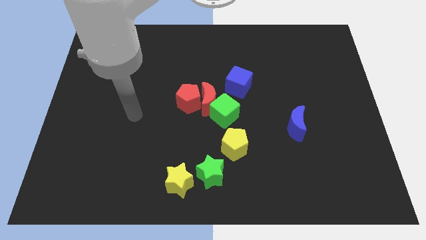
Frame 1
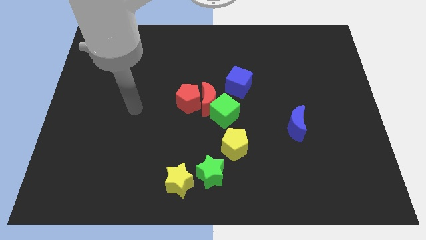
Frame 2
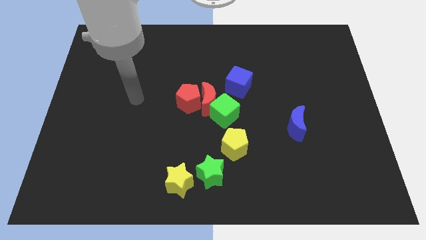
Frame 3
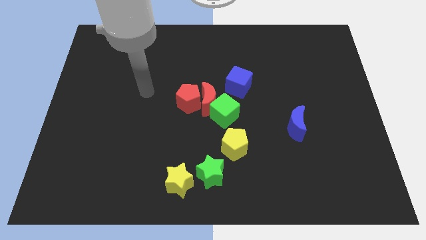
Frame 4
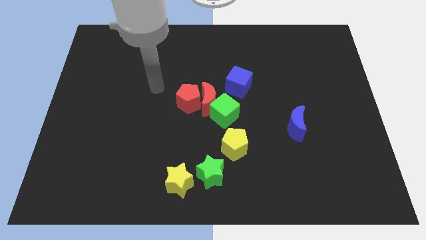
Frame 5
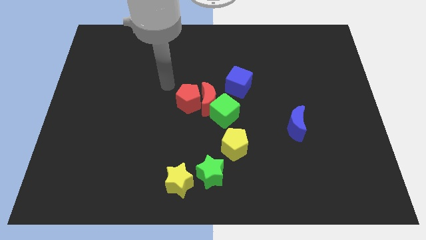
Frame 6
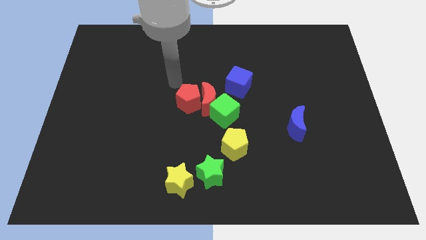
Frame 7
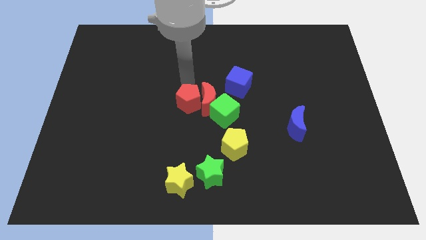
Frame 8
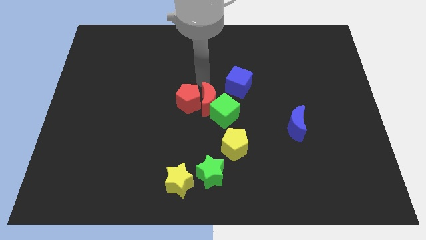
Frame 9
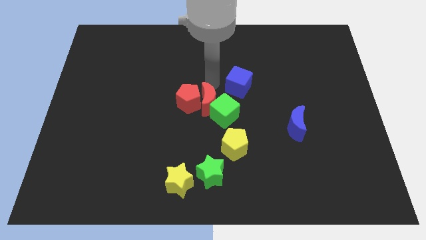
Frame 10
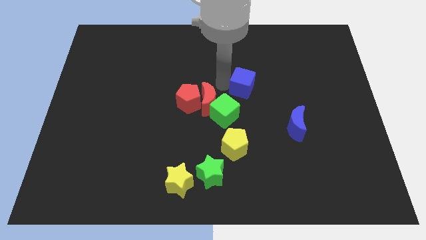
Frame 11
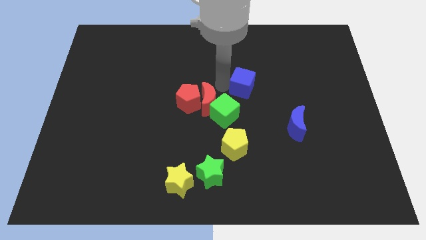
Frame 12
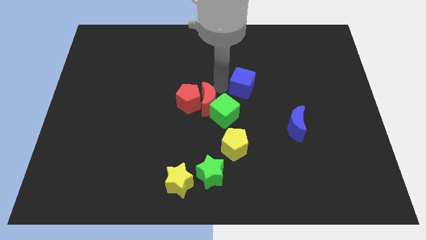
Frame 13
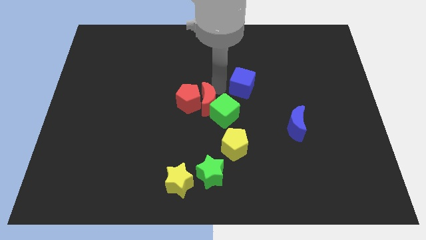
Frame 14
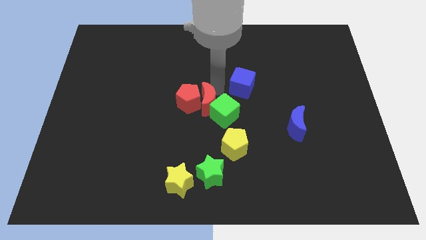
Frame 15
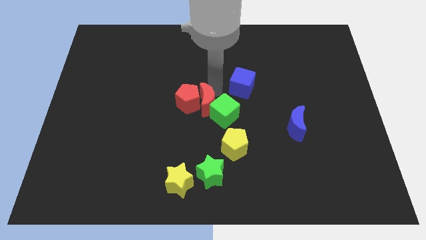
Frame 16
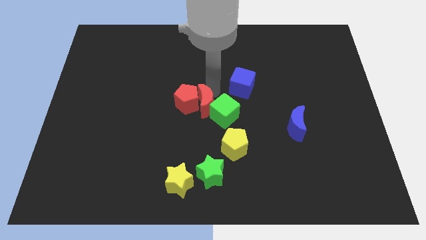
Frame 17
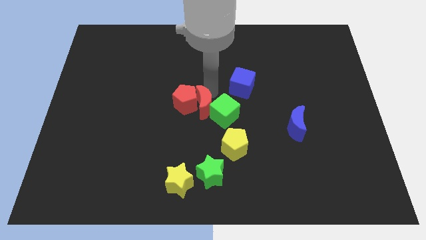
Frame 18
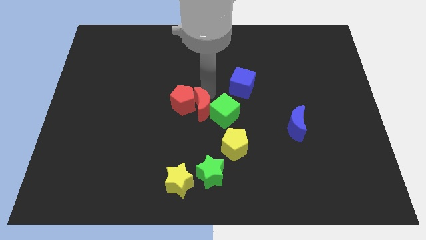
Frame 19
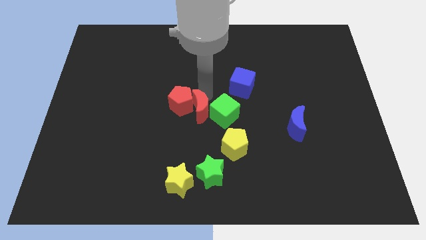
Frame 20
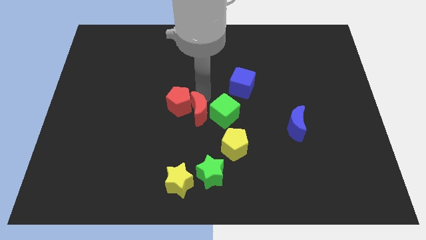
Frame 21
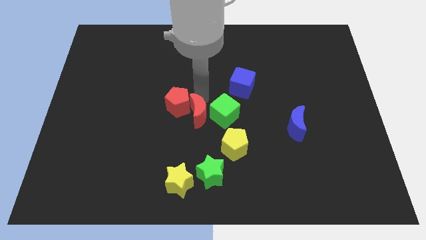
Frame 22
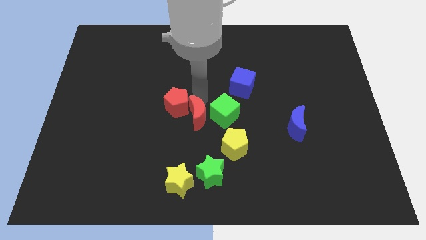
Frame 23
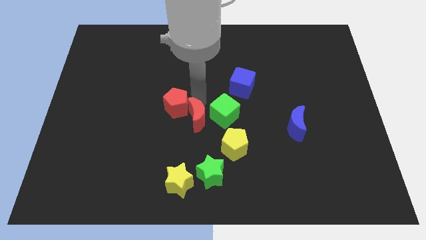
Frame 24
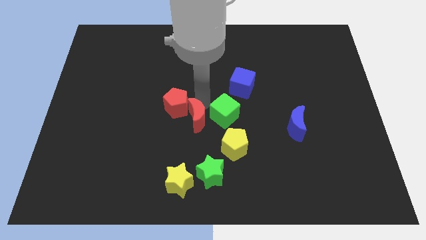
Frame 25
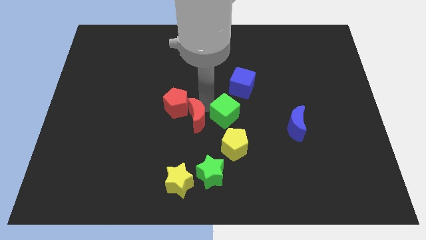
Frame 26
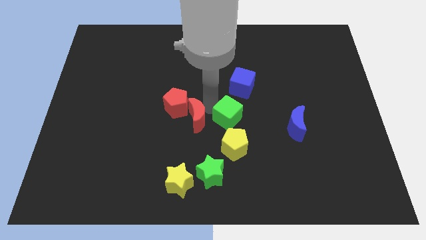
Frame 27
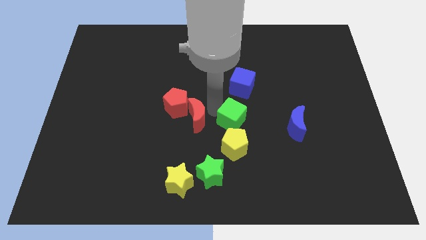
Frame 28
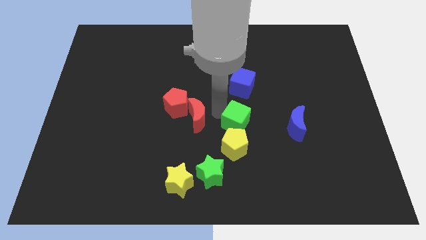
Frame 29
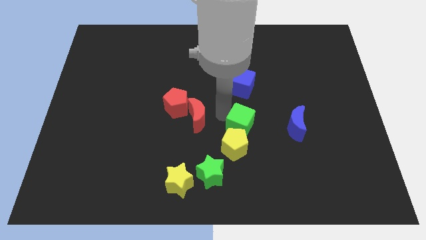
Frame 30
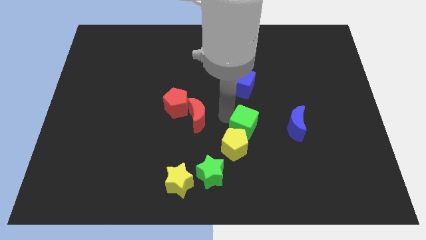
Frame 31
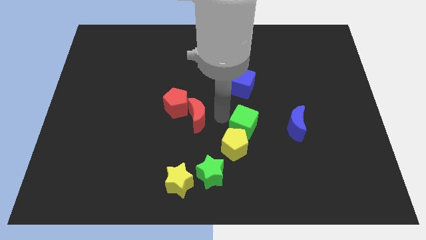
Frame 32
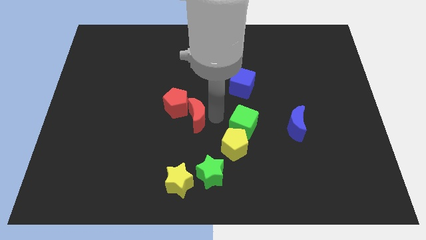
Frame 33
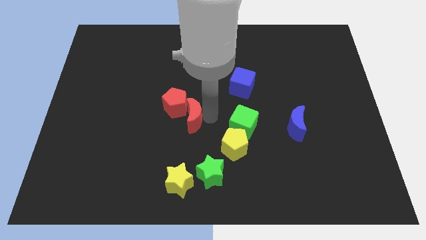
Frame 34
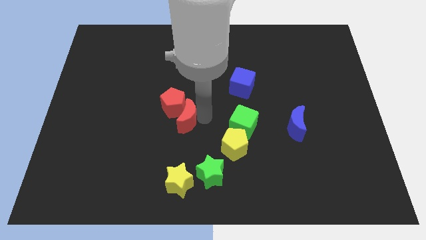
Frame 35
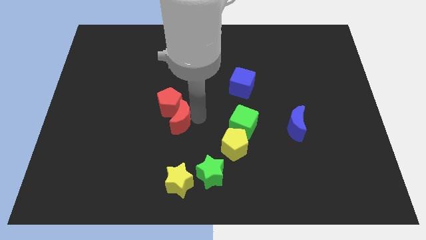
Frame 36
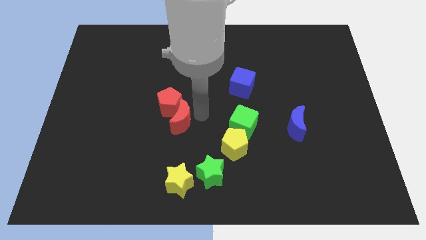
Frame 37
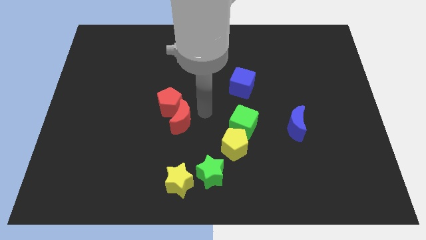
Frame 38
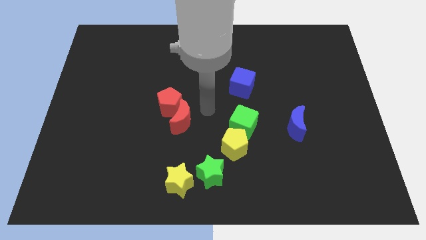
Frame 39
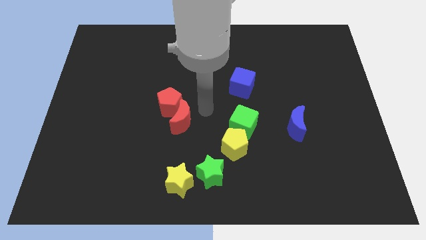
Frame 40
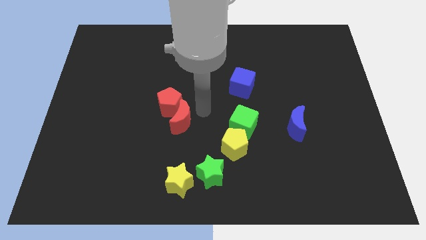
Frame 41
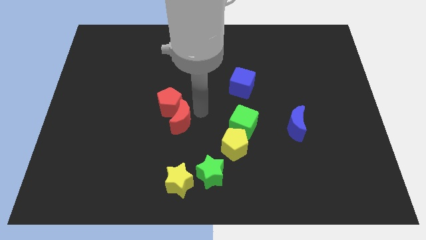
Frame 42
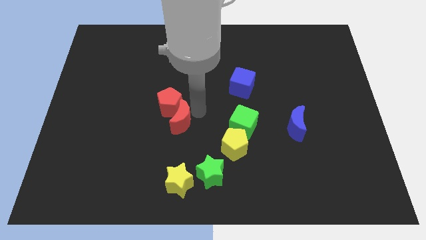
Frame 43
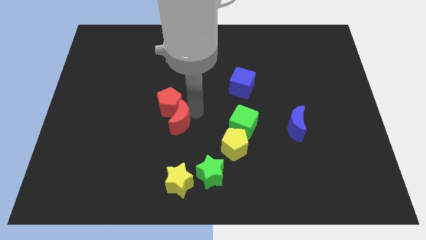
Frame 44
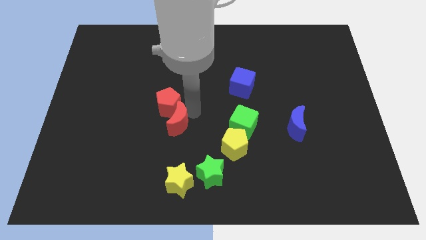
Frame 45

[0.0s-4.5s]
separate the red moon from the group of blocks

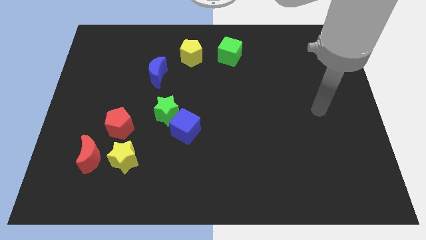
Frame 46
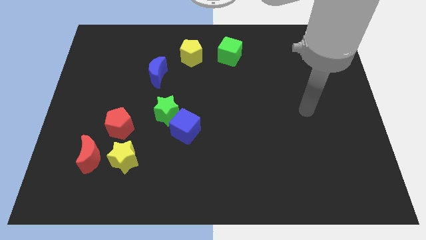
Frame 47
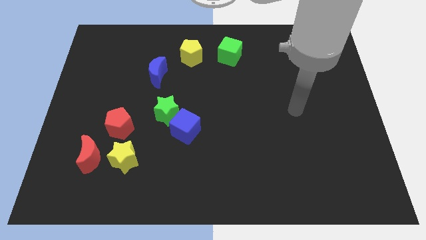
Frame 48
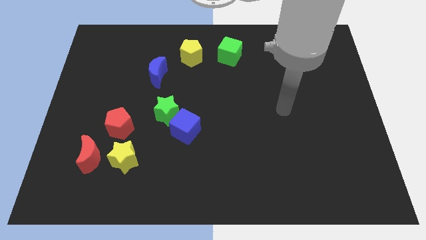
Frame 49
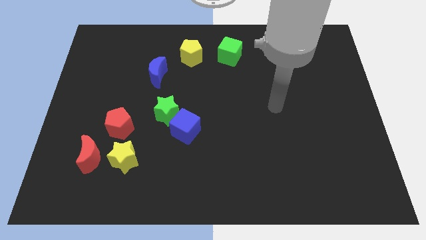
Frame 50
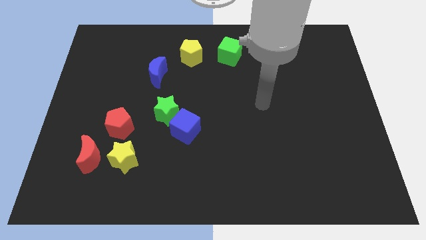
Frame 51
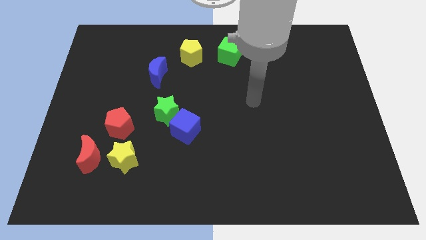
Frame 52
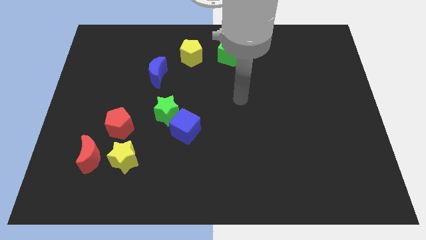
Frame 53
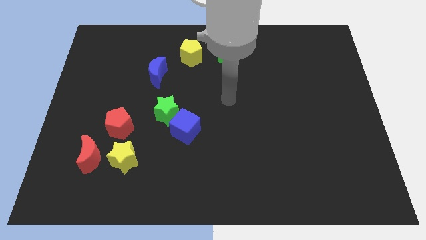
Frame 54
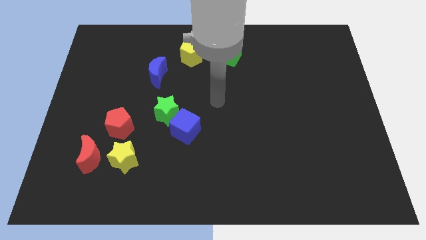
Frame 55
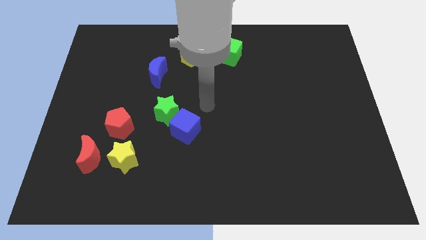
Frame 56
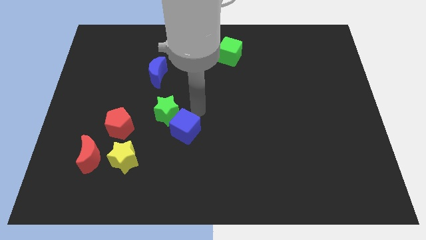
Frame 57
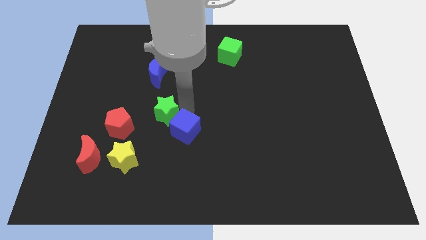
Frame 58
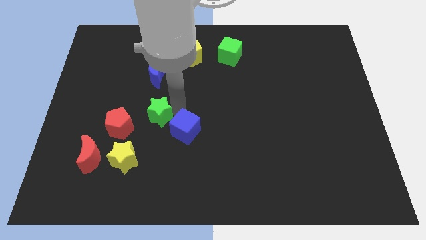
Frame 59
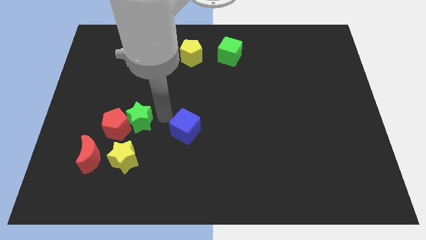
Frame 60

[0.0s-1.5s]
separate the blue cube from the green star

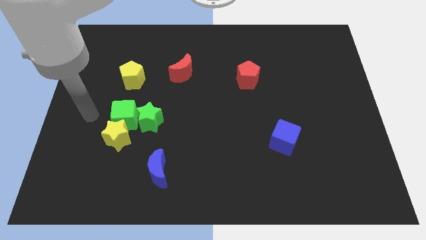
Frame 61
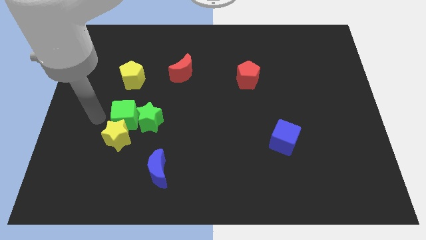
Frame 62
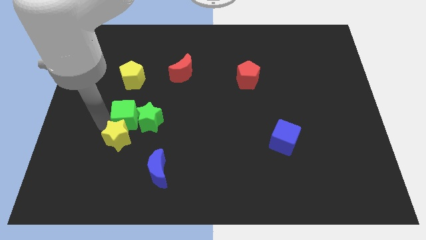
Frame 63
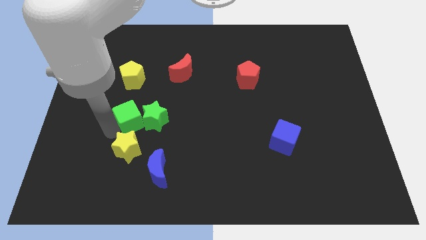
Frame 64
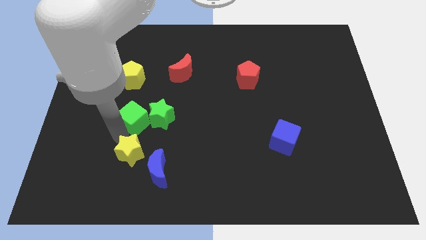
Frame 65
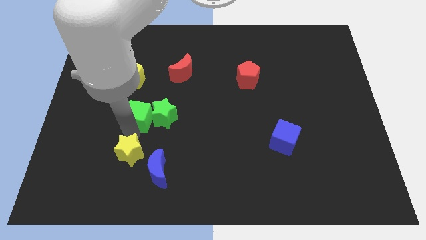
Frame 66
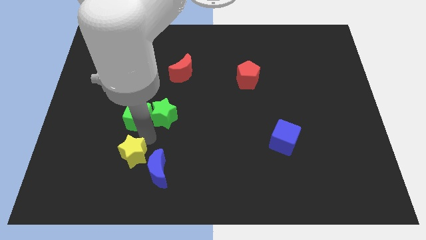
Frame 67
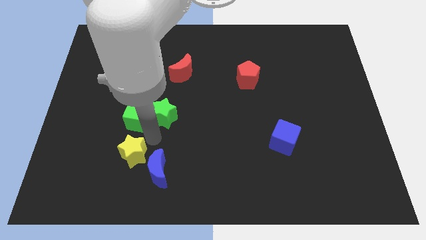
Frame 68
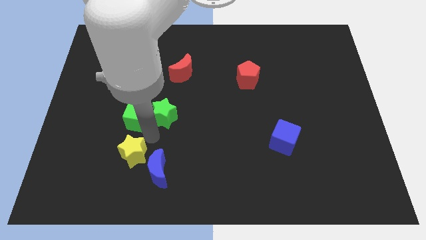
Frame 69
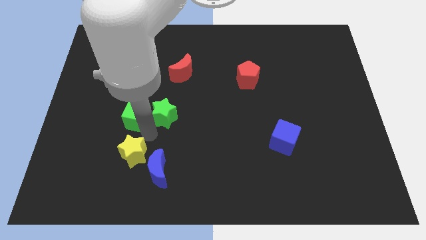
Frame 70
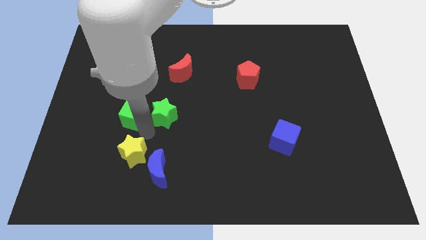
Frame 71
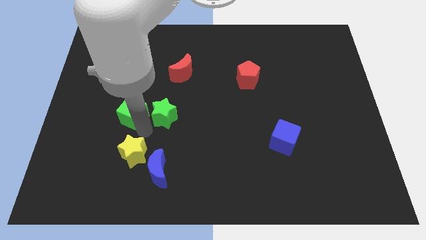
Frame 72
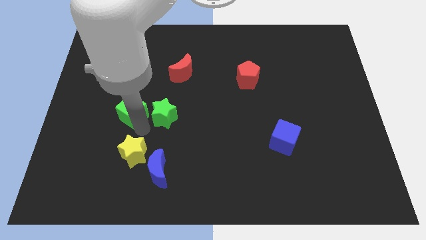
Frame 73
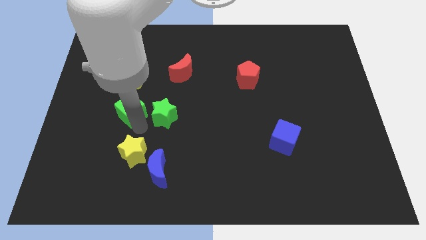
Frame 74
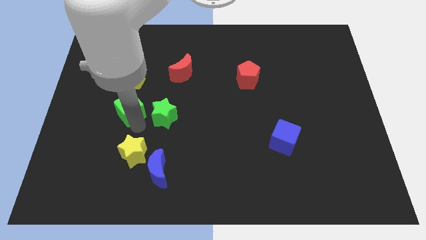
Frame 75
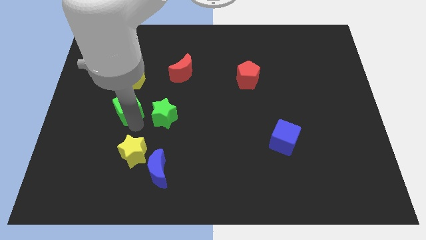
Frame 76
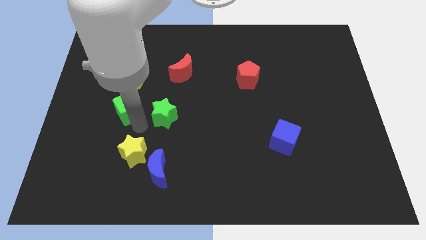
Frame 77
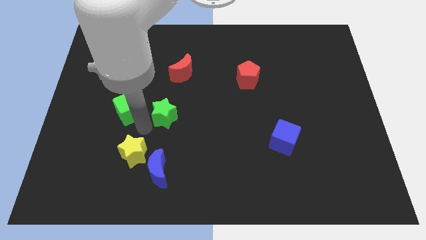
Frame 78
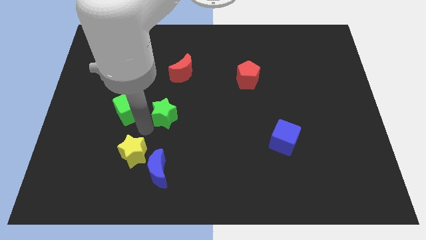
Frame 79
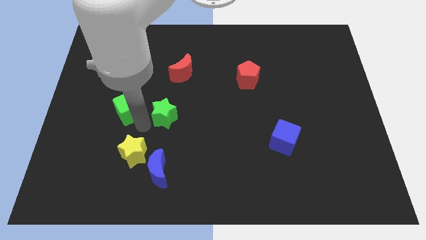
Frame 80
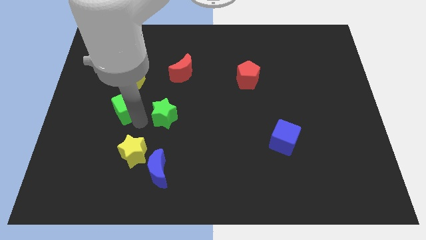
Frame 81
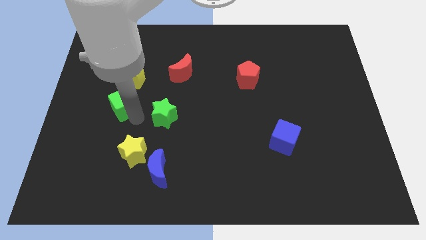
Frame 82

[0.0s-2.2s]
pull the green cube apart from the yellow star and green star

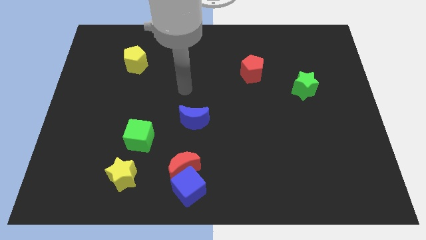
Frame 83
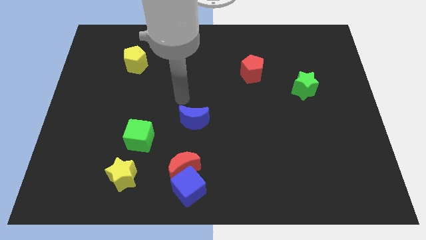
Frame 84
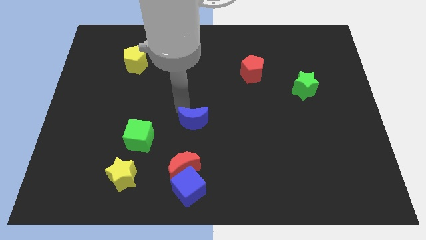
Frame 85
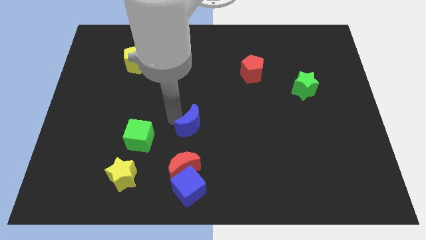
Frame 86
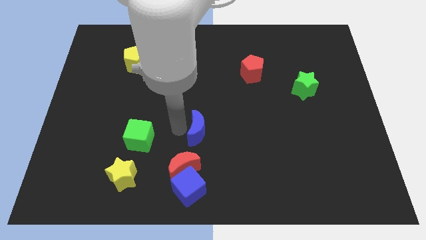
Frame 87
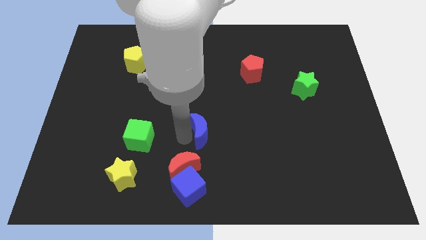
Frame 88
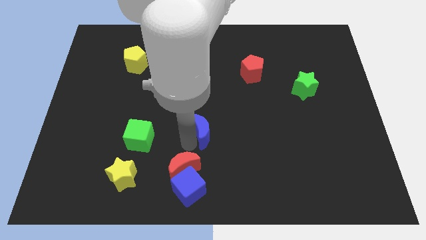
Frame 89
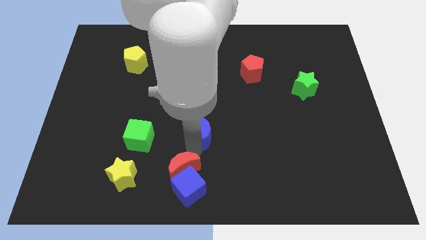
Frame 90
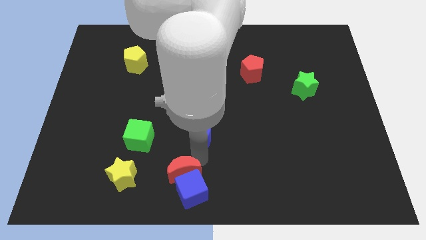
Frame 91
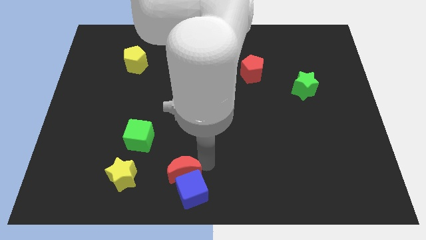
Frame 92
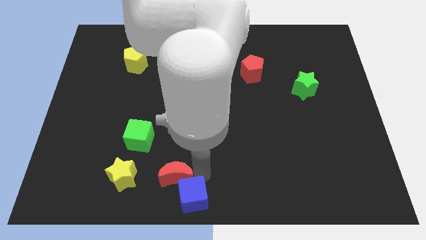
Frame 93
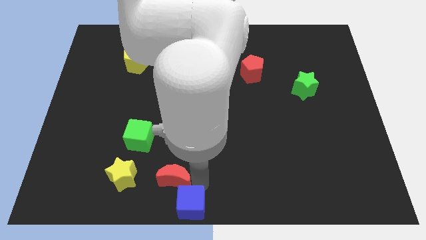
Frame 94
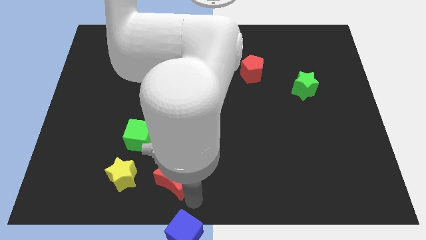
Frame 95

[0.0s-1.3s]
pull the red moon apart from the blue cube
